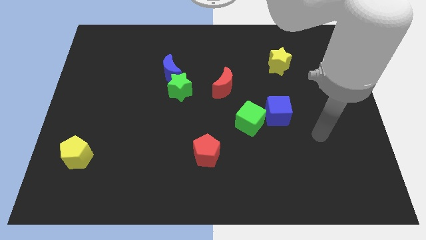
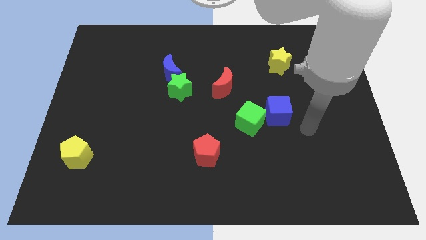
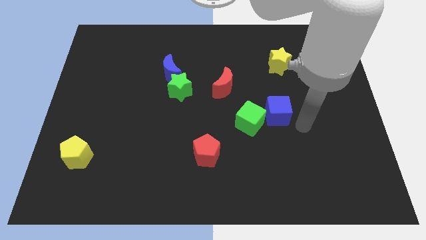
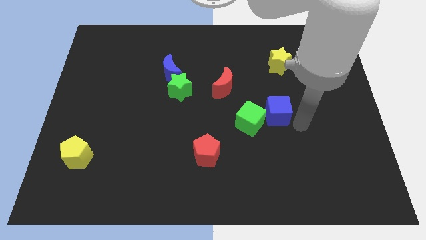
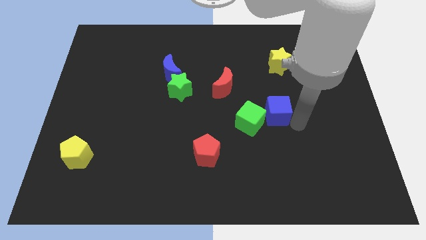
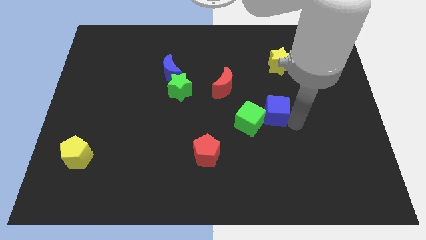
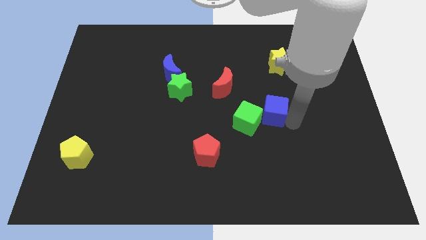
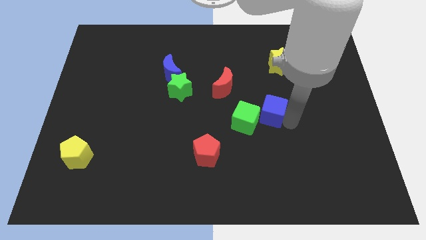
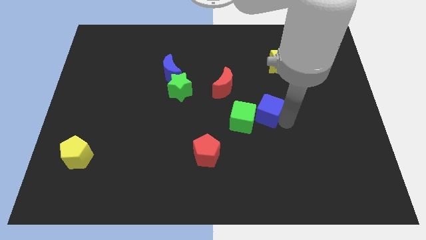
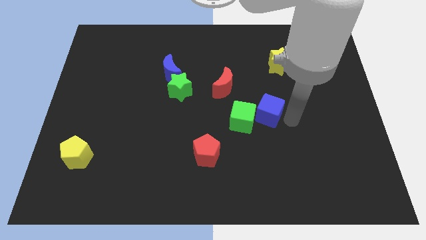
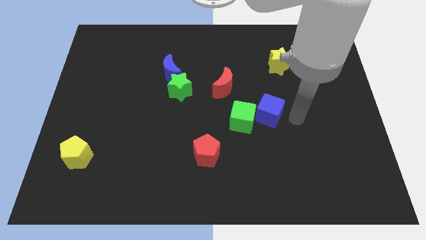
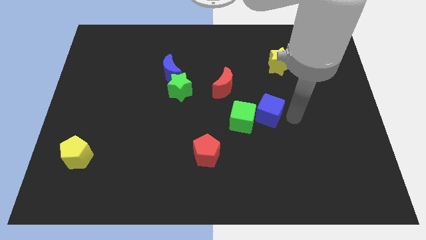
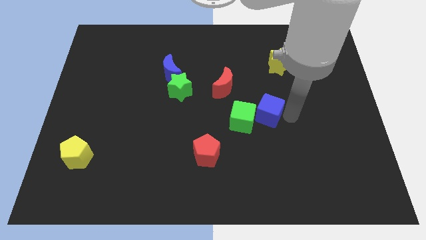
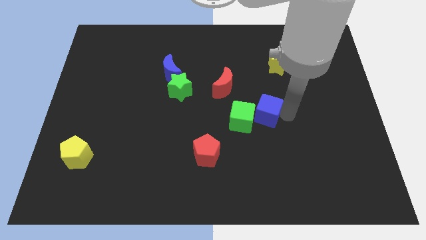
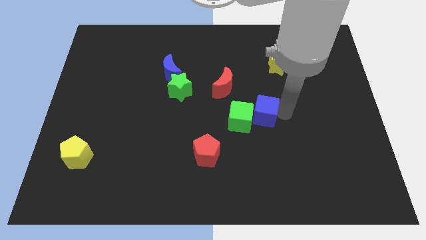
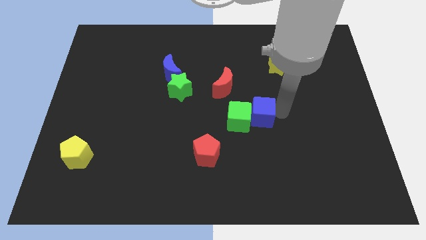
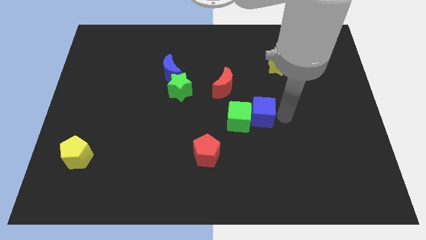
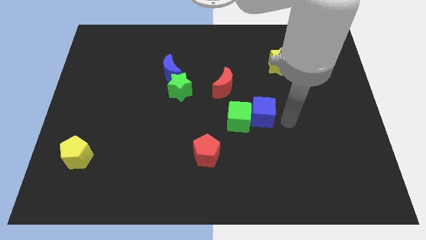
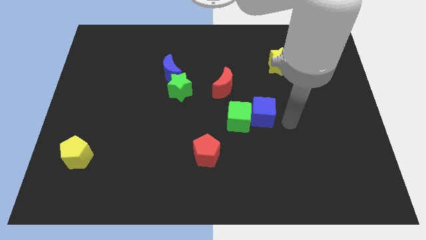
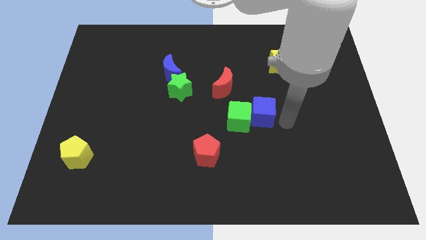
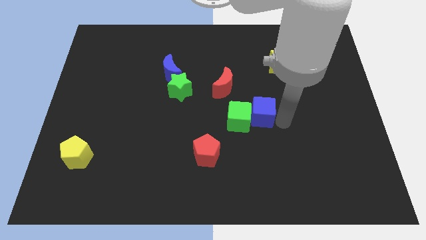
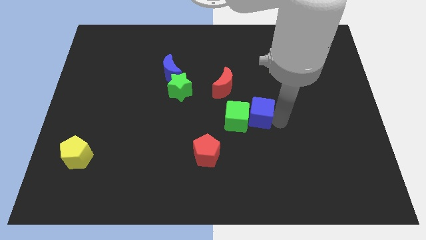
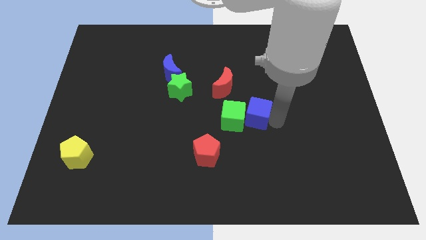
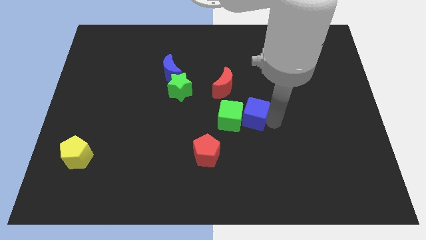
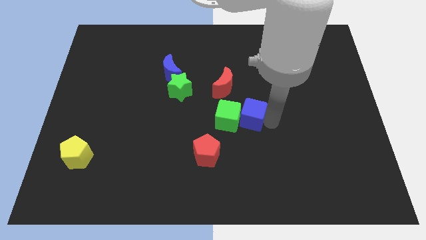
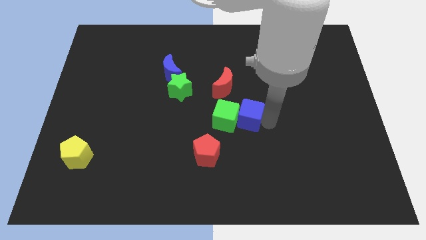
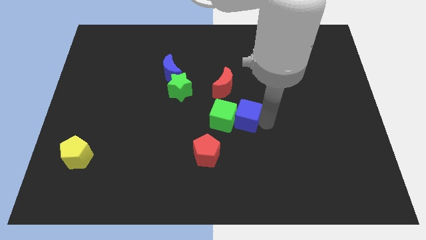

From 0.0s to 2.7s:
slightly slide the blue cube to the left

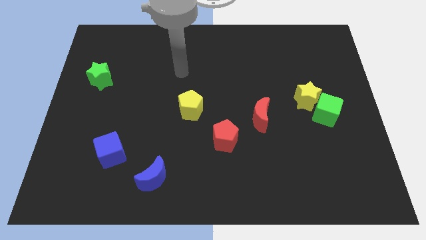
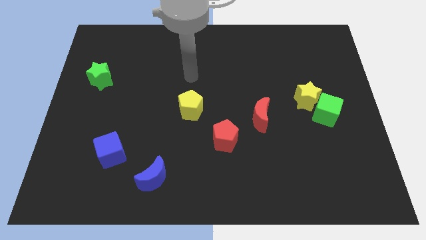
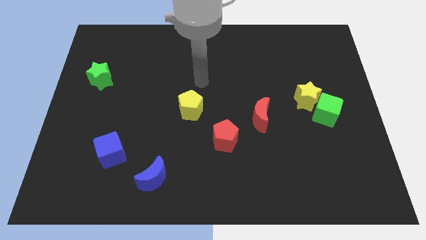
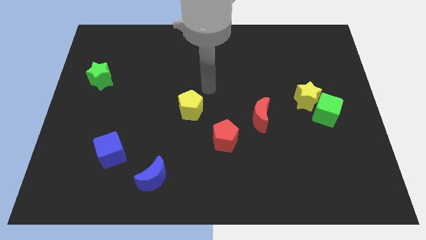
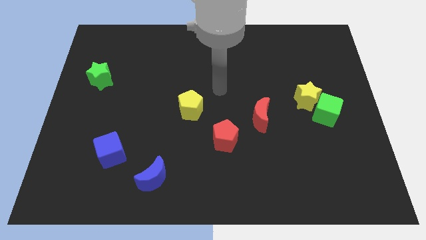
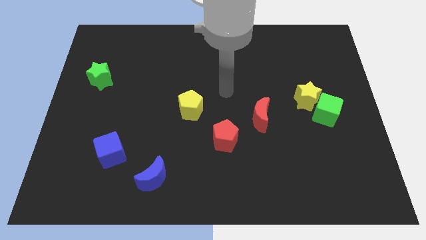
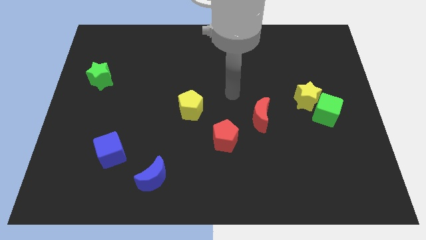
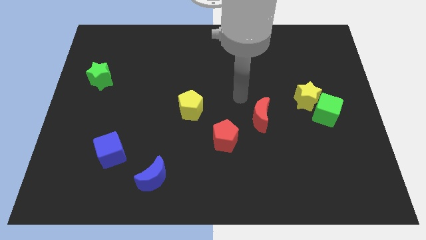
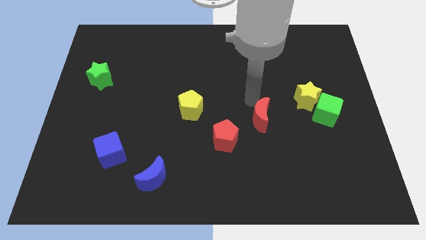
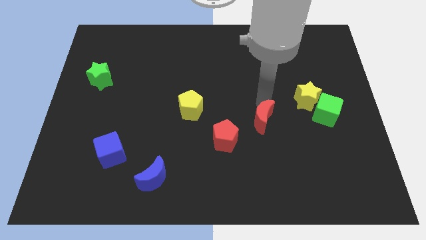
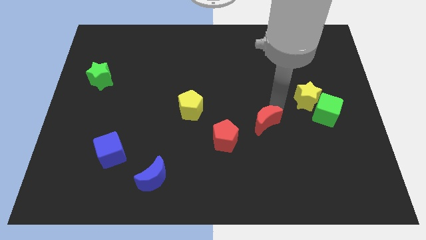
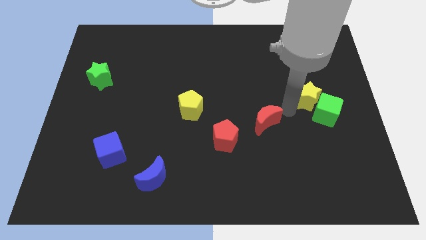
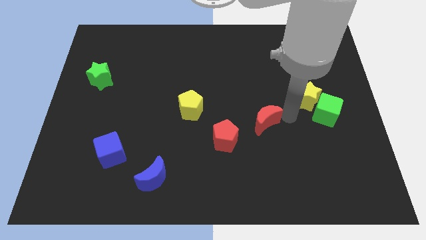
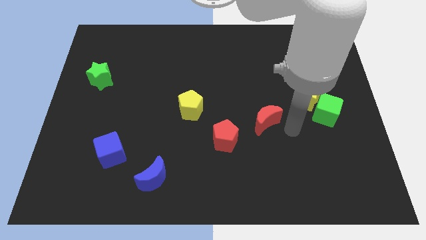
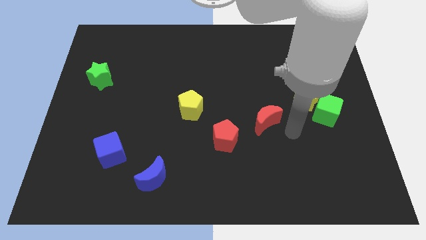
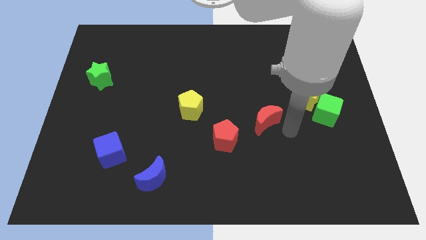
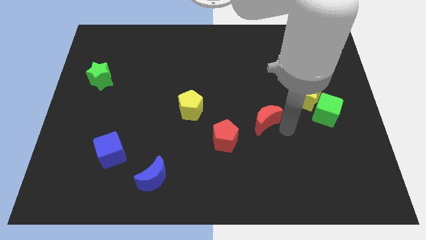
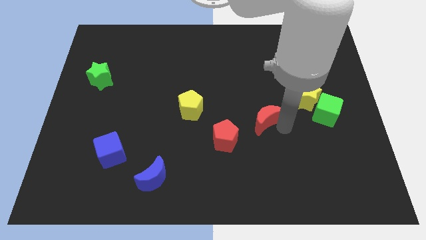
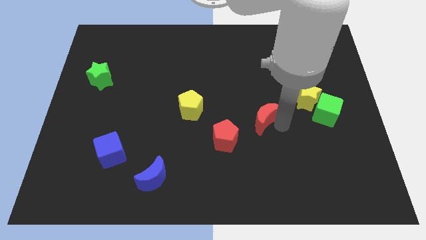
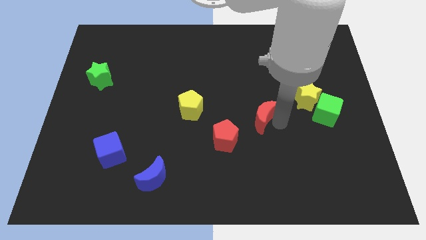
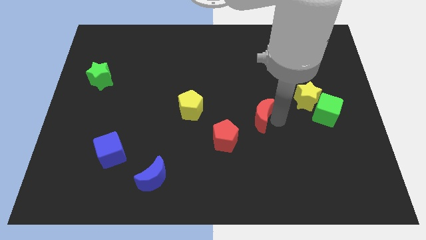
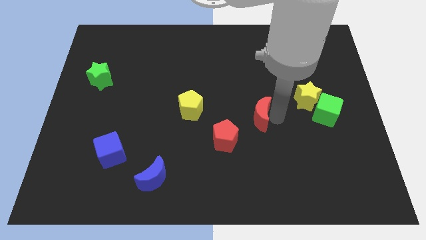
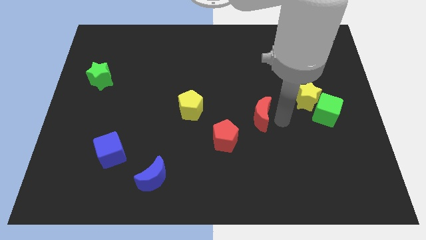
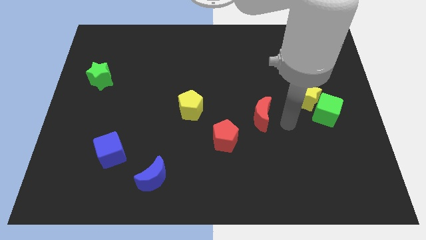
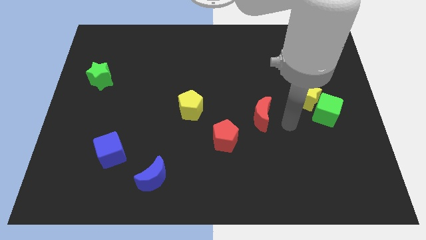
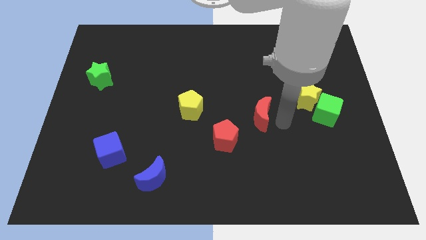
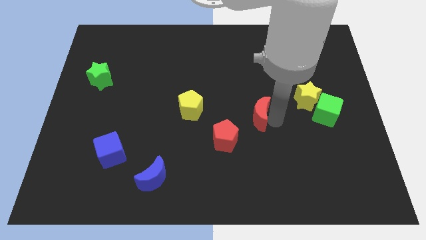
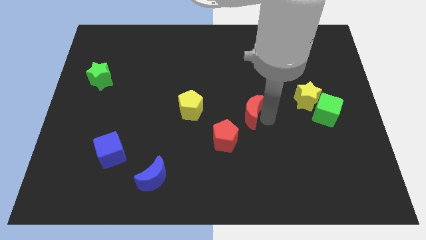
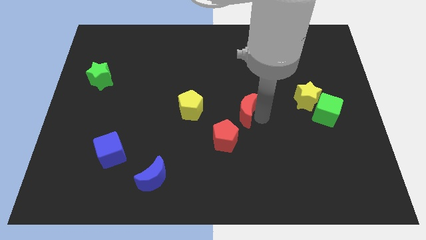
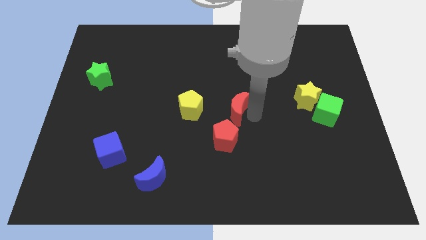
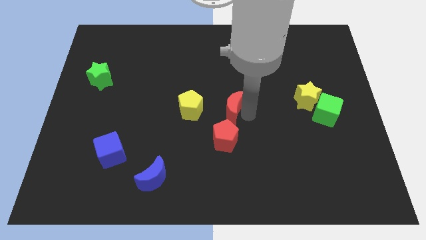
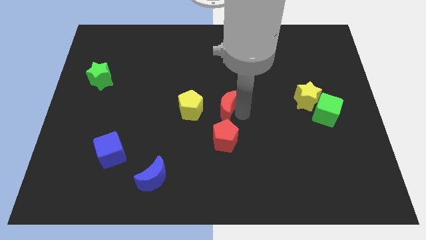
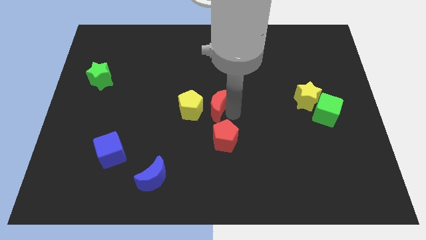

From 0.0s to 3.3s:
slightly move the red moon up and left diagonally

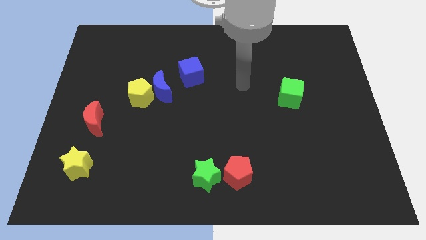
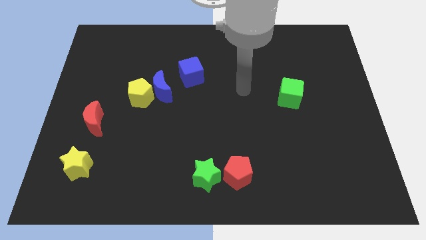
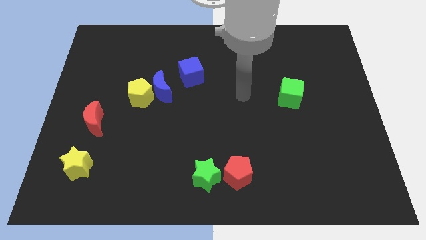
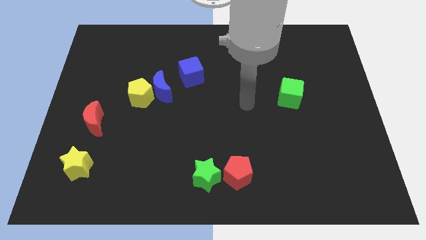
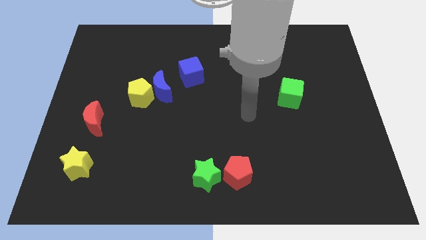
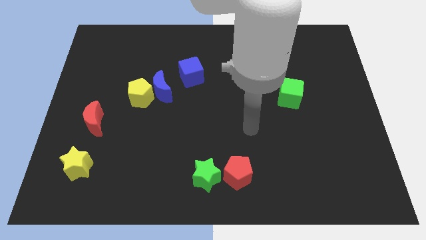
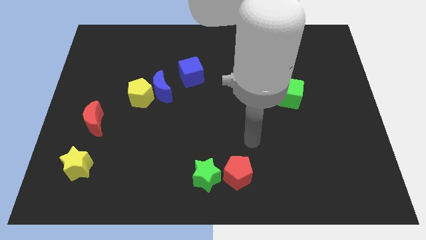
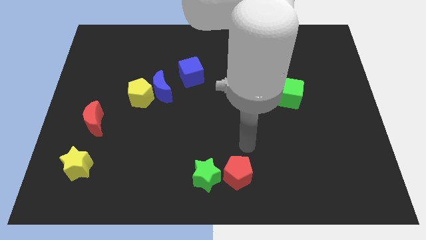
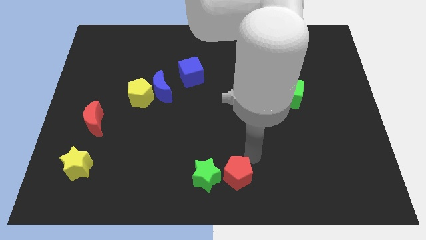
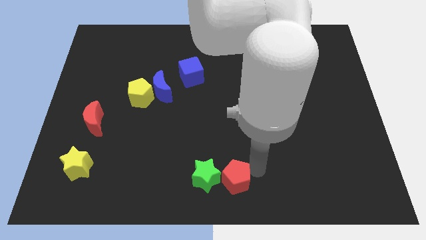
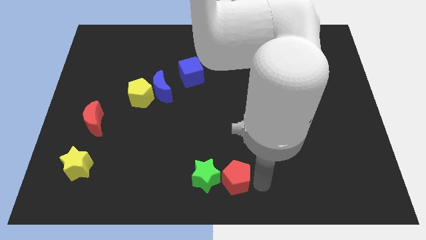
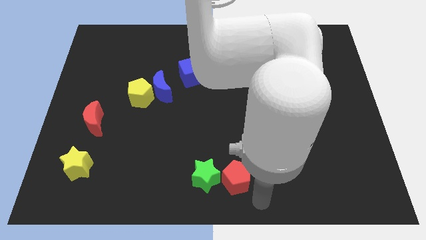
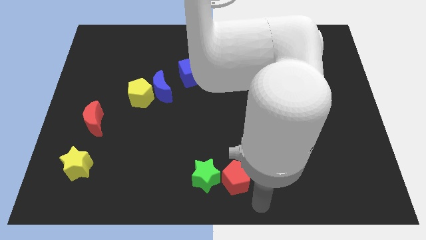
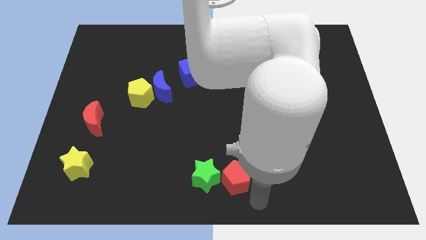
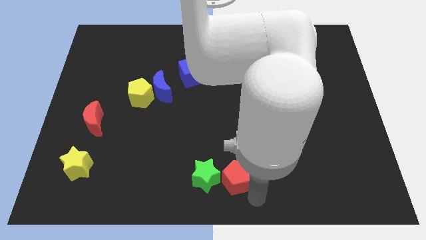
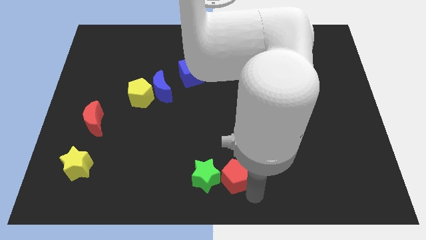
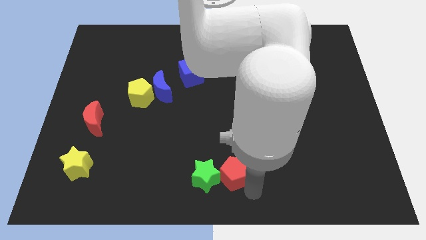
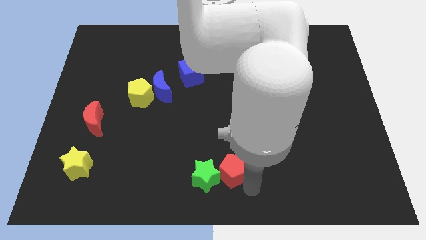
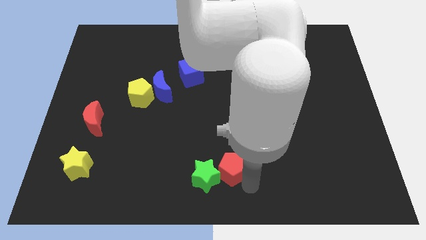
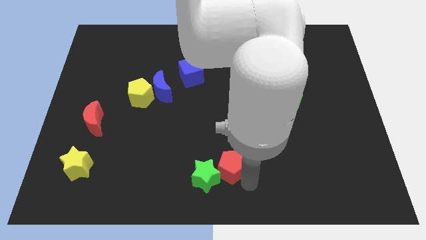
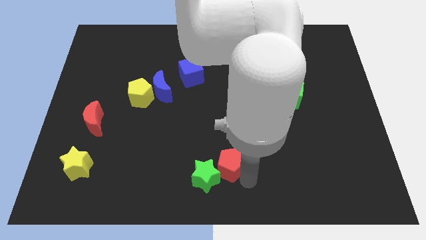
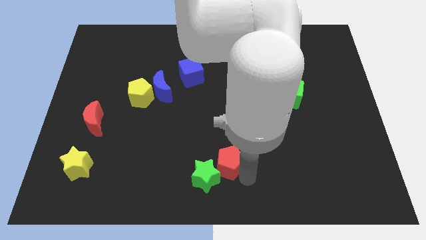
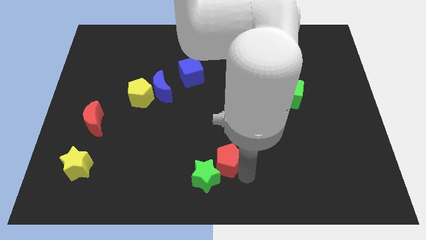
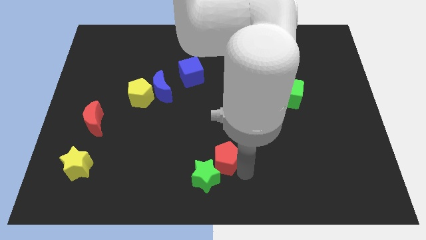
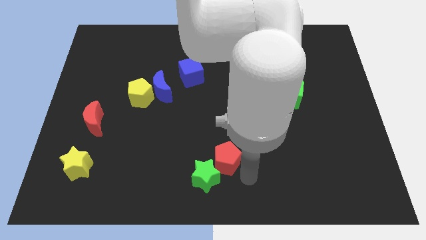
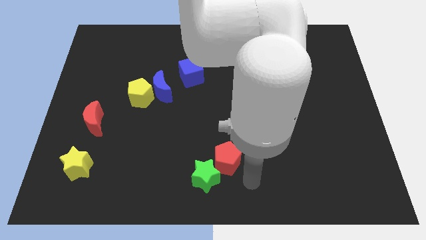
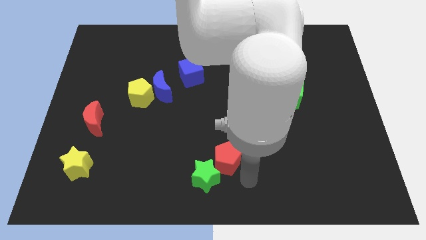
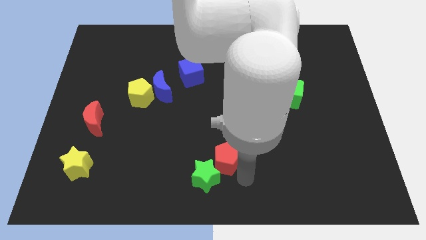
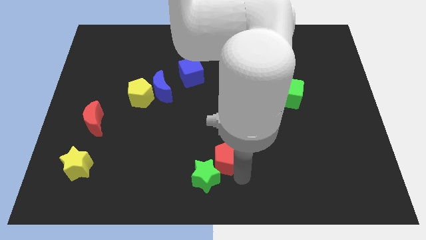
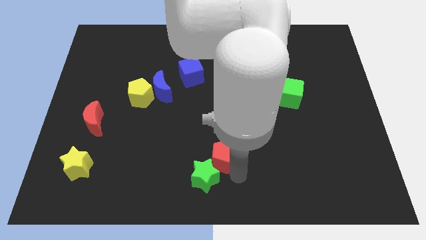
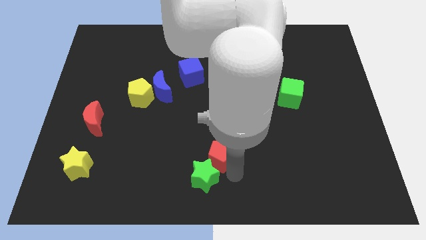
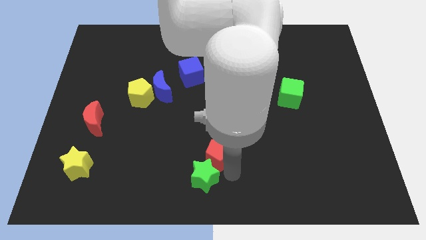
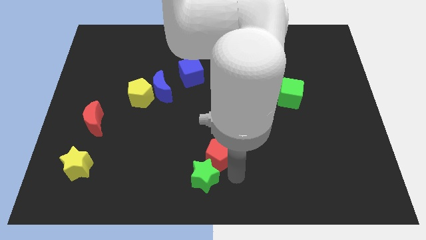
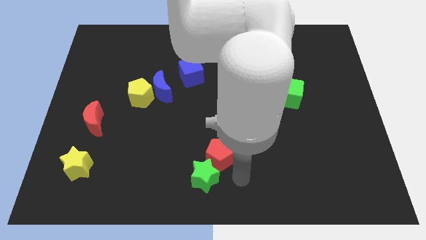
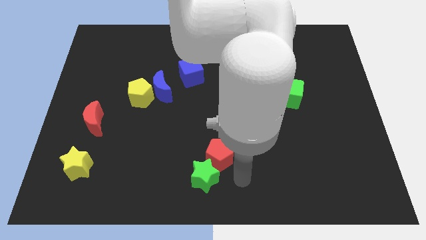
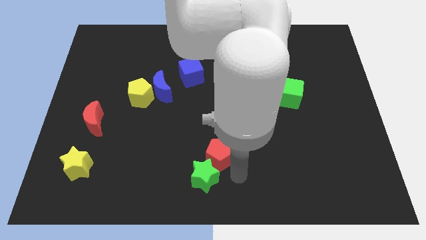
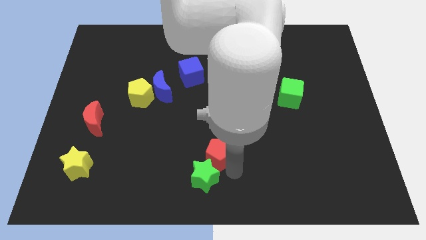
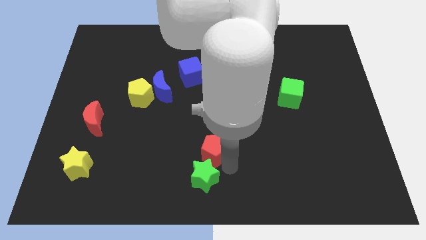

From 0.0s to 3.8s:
push the red pentagon somewhat up and to the left diagonally
